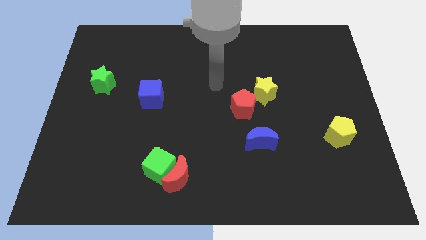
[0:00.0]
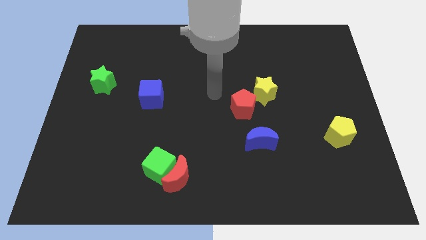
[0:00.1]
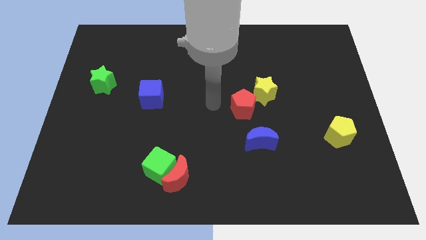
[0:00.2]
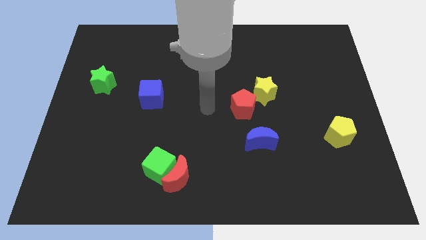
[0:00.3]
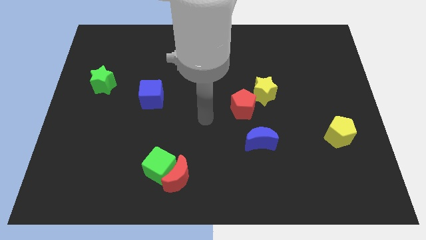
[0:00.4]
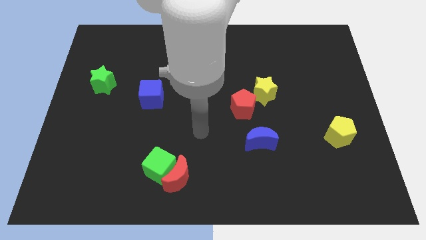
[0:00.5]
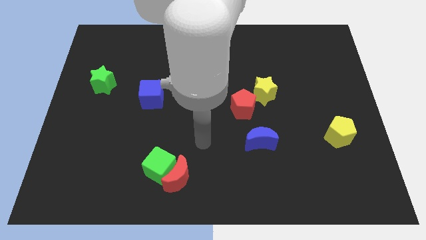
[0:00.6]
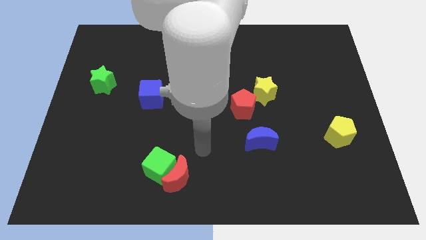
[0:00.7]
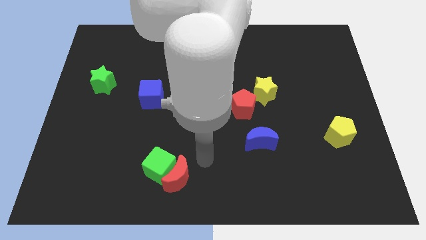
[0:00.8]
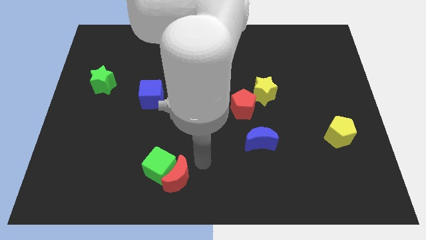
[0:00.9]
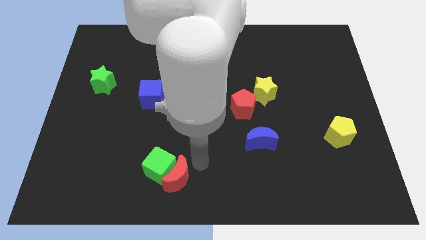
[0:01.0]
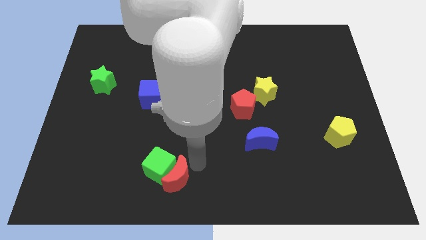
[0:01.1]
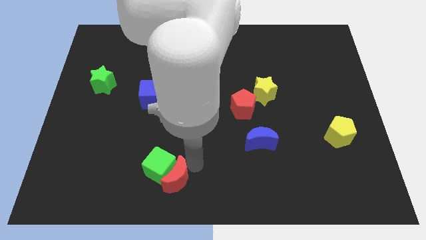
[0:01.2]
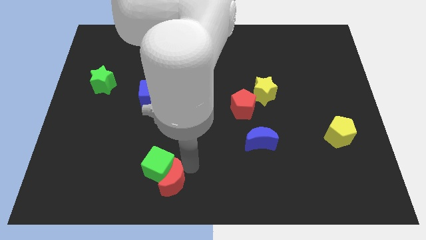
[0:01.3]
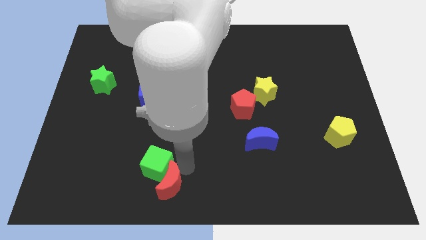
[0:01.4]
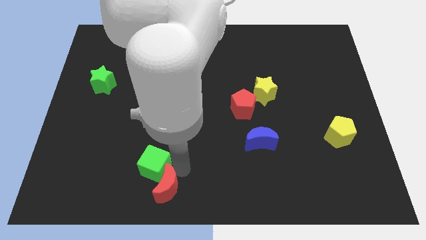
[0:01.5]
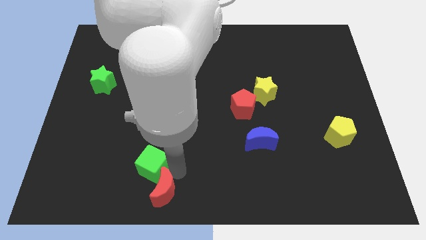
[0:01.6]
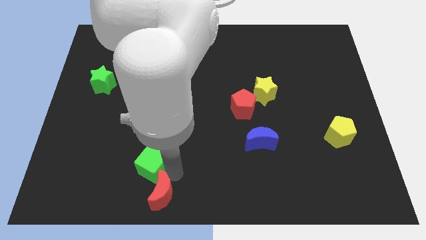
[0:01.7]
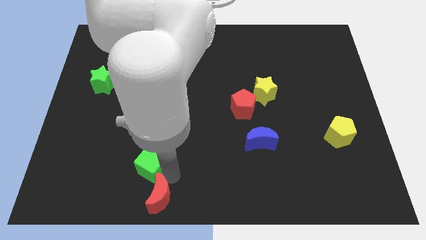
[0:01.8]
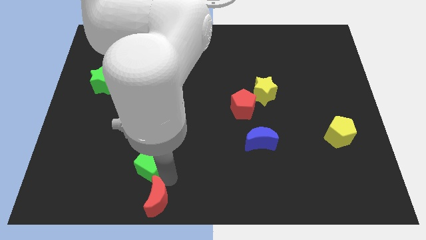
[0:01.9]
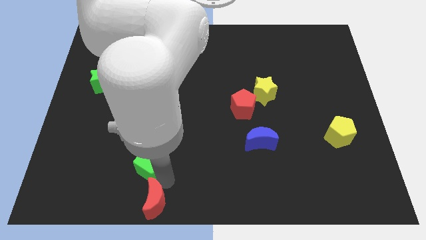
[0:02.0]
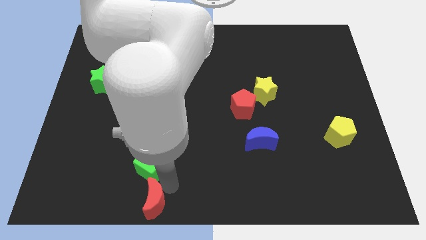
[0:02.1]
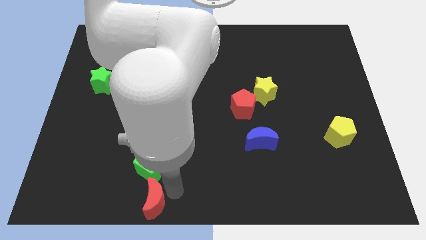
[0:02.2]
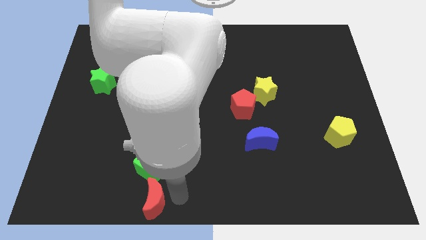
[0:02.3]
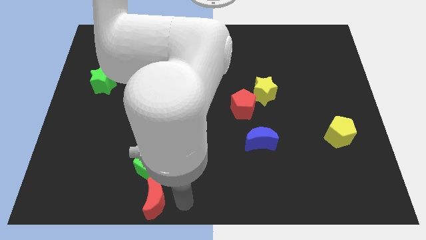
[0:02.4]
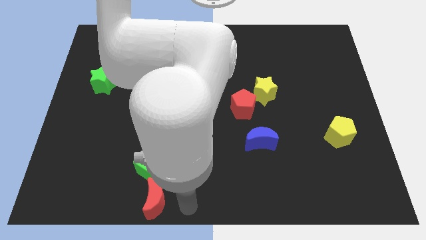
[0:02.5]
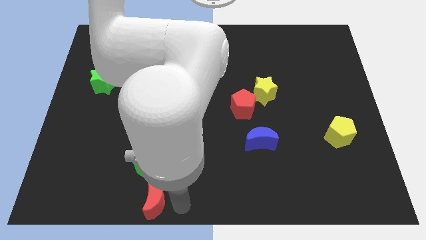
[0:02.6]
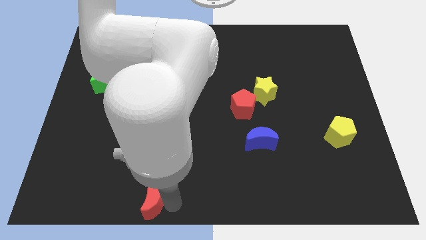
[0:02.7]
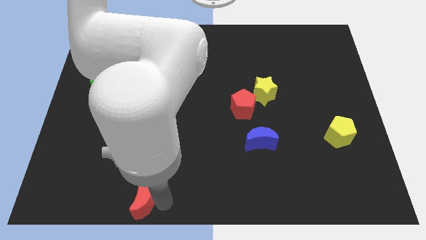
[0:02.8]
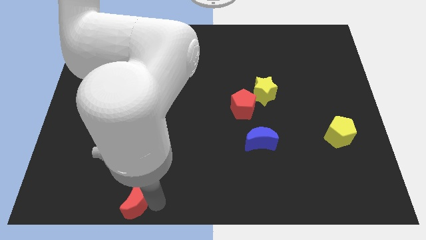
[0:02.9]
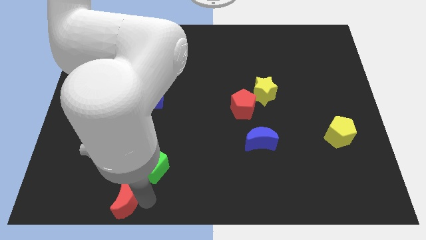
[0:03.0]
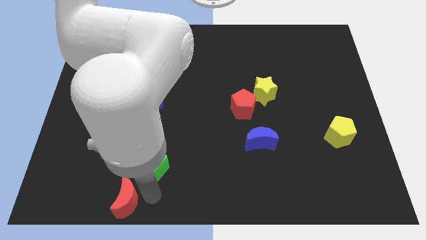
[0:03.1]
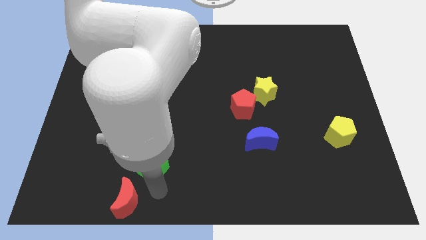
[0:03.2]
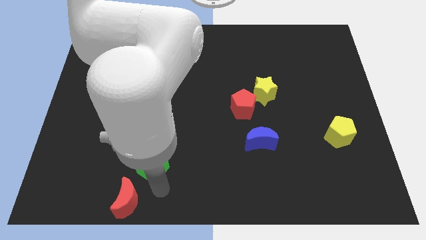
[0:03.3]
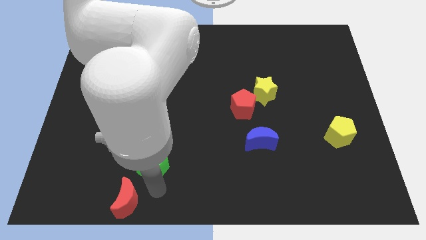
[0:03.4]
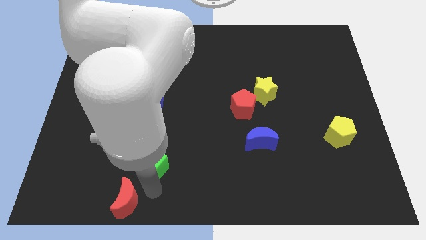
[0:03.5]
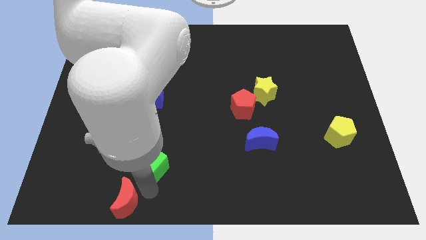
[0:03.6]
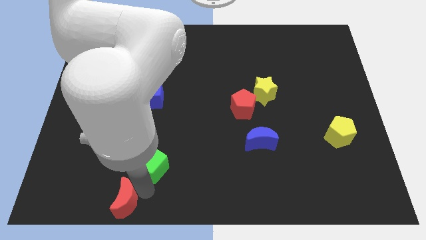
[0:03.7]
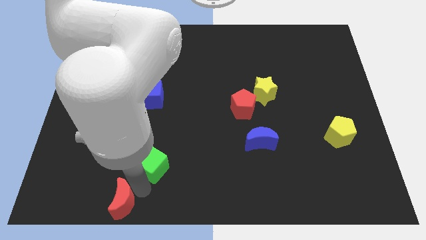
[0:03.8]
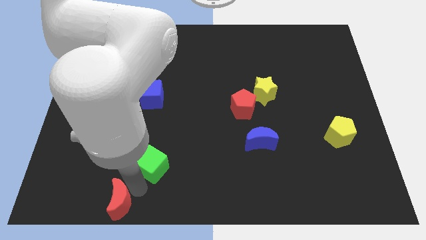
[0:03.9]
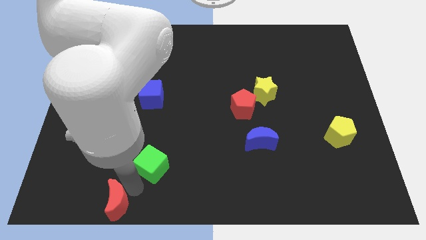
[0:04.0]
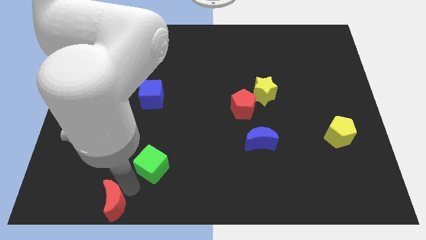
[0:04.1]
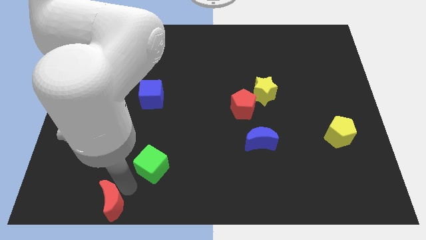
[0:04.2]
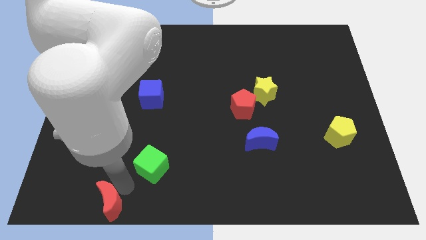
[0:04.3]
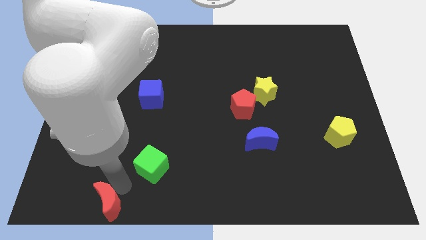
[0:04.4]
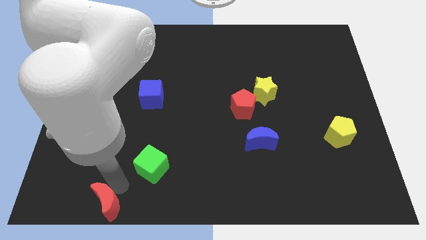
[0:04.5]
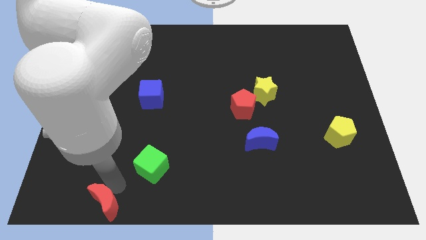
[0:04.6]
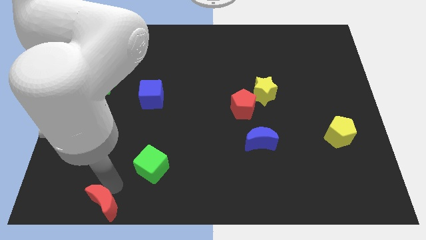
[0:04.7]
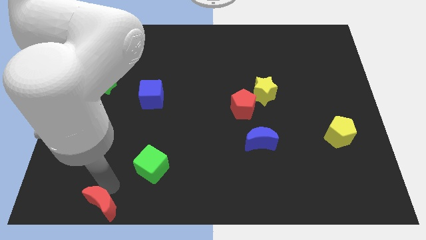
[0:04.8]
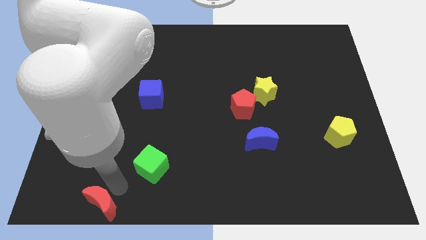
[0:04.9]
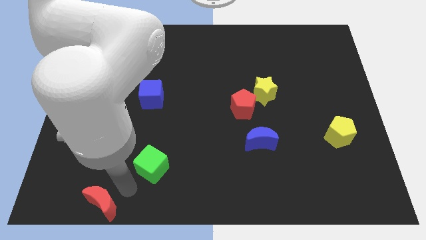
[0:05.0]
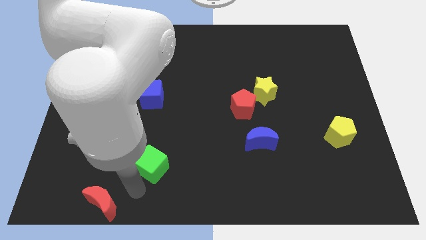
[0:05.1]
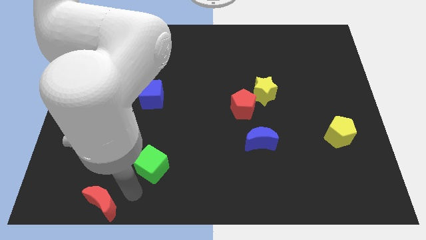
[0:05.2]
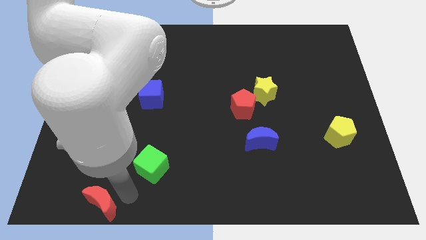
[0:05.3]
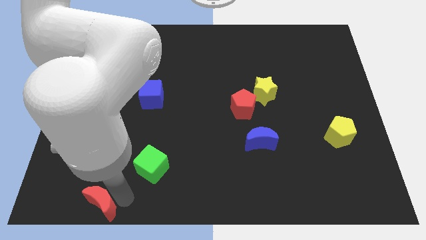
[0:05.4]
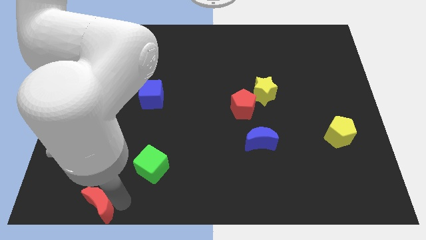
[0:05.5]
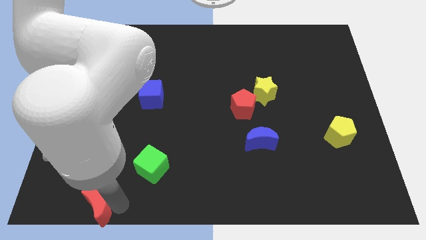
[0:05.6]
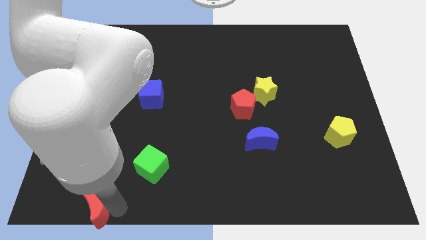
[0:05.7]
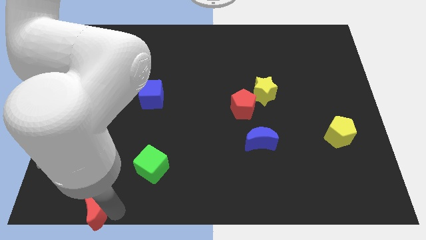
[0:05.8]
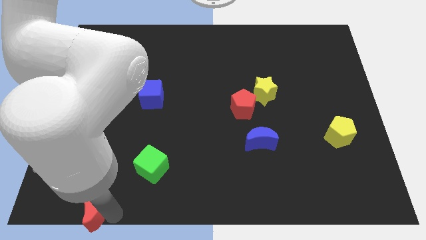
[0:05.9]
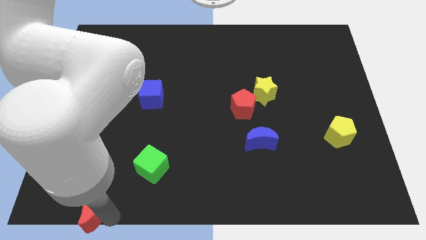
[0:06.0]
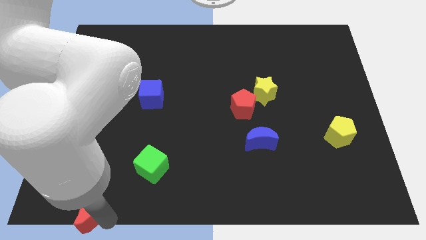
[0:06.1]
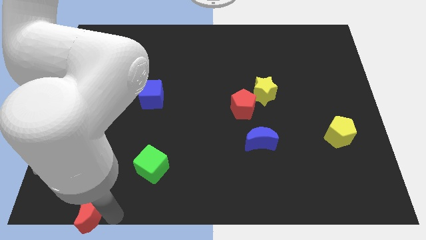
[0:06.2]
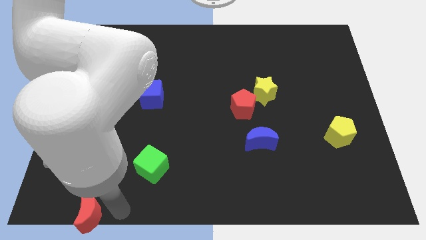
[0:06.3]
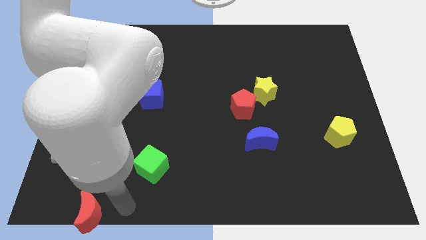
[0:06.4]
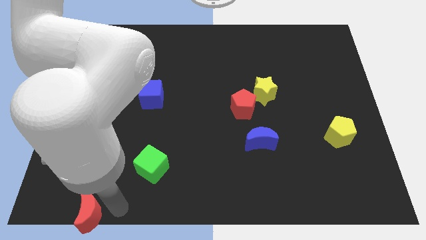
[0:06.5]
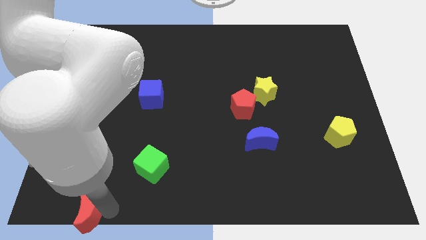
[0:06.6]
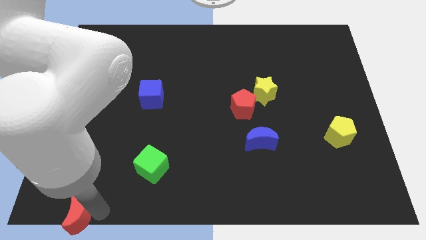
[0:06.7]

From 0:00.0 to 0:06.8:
move the red moon to the lower left corner
